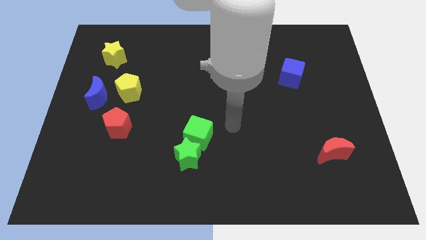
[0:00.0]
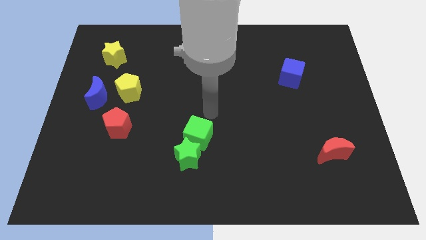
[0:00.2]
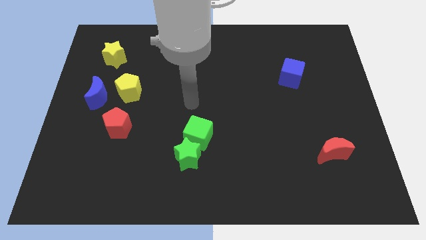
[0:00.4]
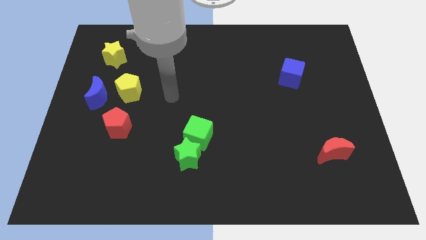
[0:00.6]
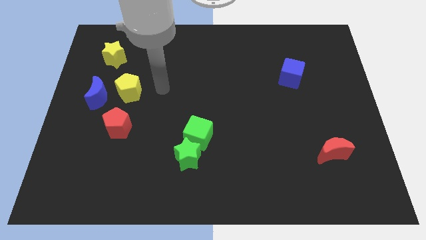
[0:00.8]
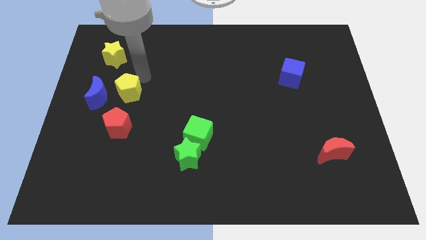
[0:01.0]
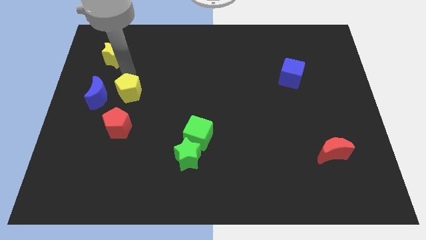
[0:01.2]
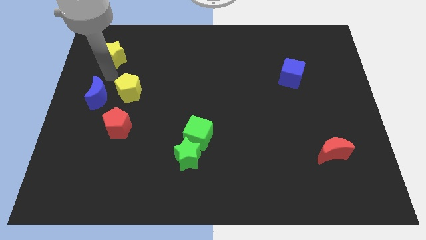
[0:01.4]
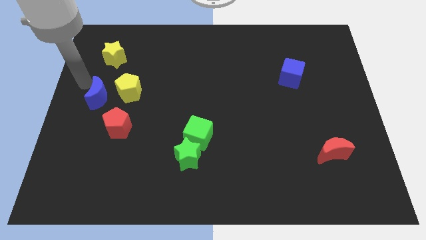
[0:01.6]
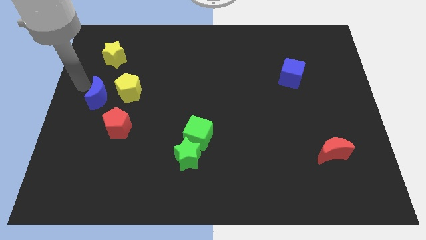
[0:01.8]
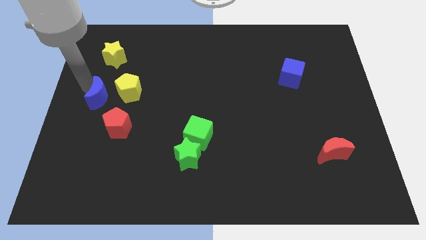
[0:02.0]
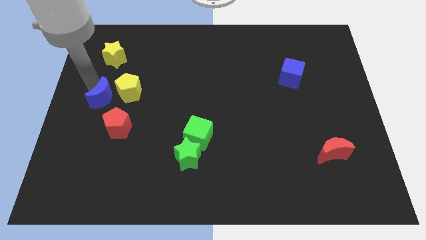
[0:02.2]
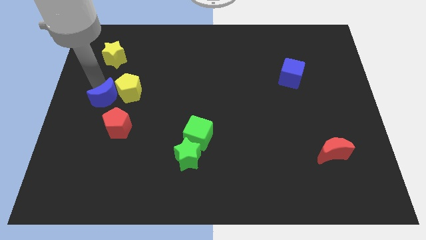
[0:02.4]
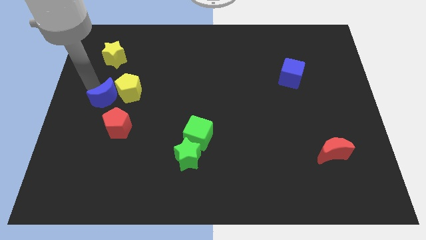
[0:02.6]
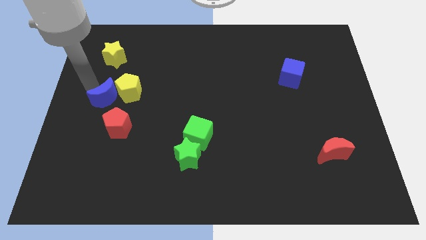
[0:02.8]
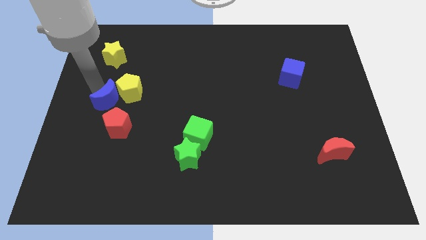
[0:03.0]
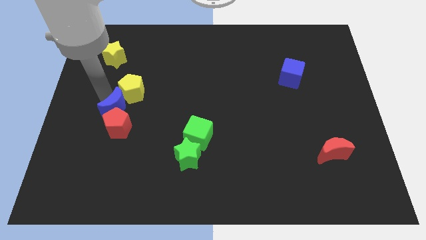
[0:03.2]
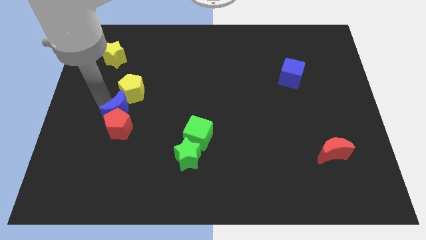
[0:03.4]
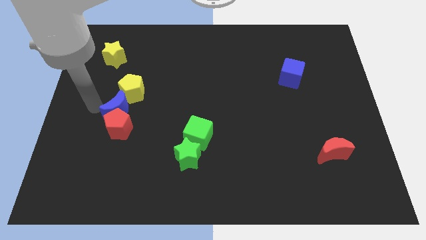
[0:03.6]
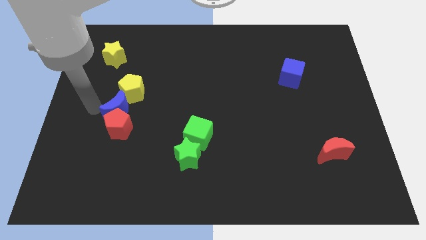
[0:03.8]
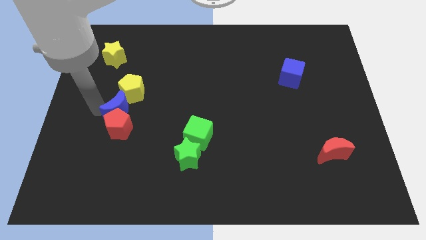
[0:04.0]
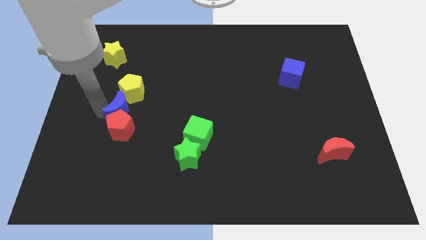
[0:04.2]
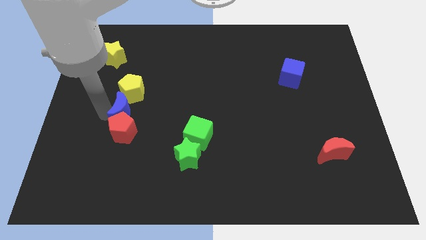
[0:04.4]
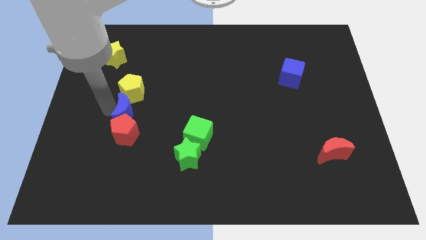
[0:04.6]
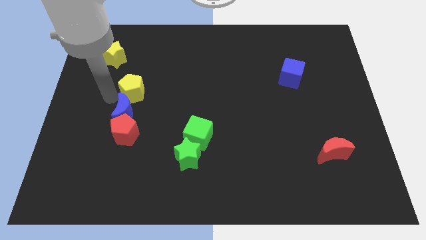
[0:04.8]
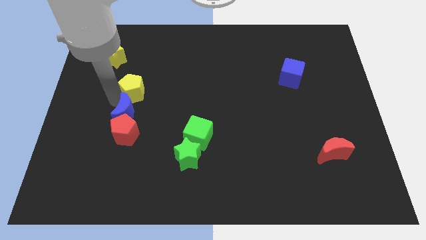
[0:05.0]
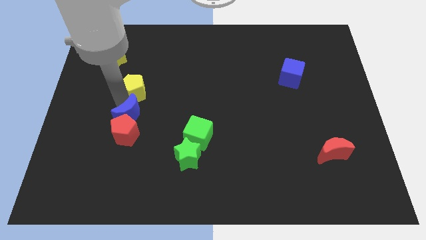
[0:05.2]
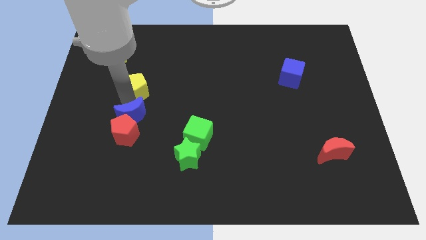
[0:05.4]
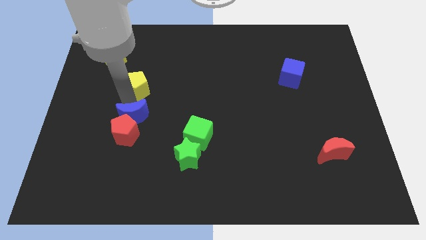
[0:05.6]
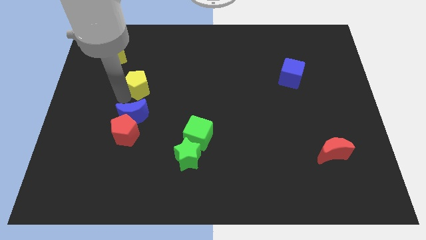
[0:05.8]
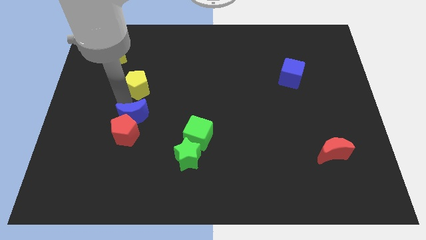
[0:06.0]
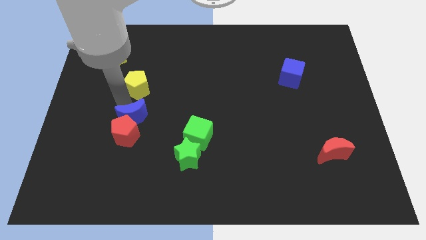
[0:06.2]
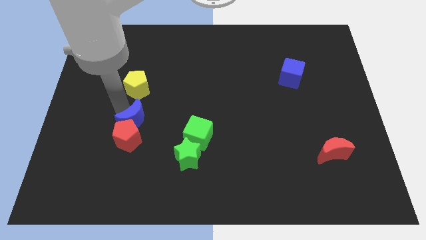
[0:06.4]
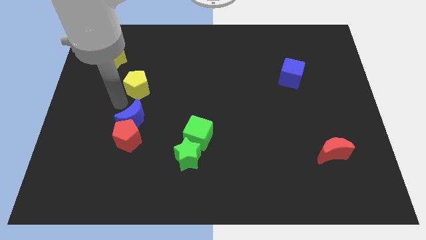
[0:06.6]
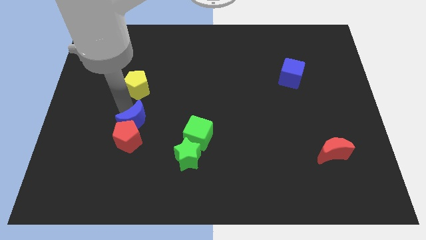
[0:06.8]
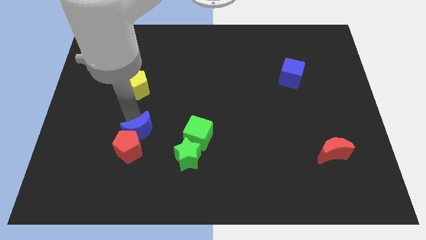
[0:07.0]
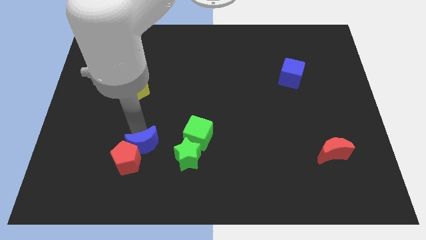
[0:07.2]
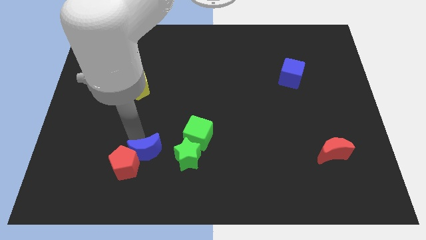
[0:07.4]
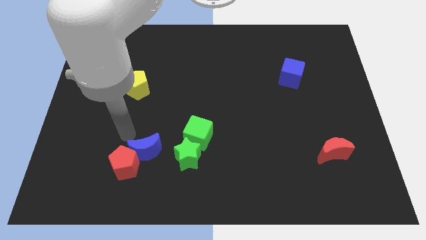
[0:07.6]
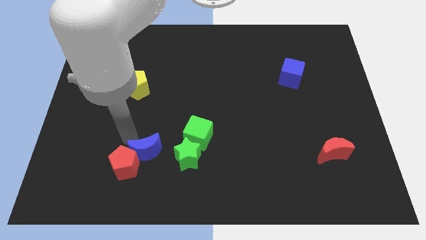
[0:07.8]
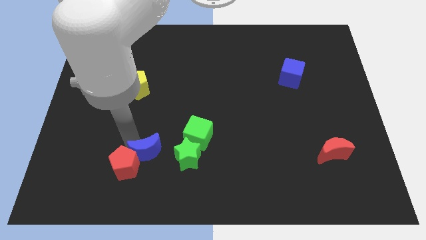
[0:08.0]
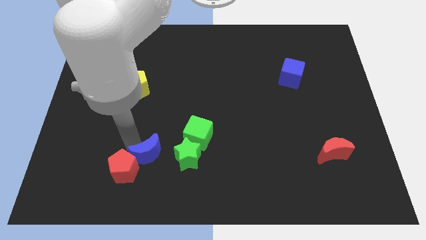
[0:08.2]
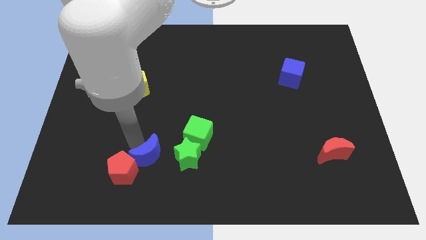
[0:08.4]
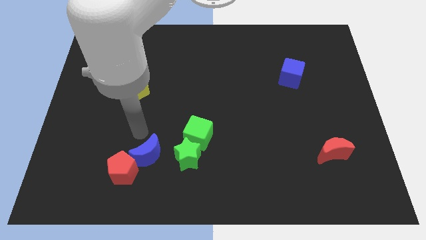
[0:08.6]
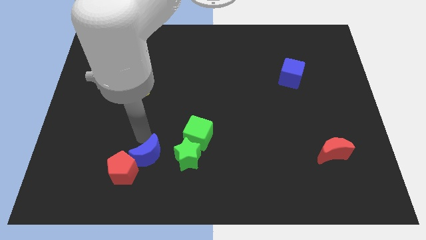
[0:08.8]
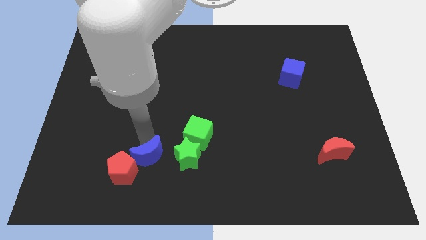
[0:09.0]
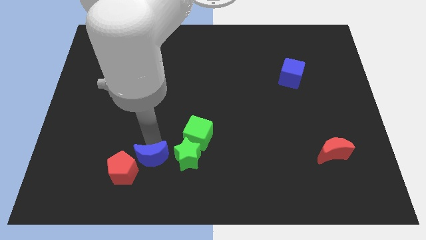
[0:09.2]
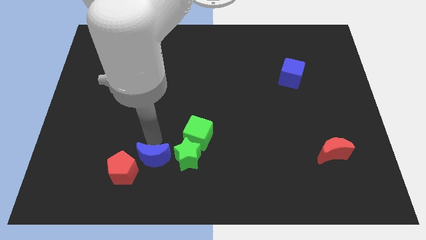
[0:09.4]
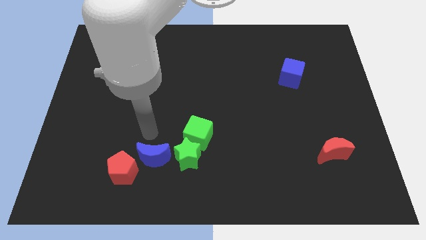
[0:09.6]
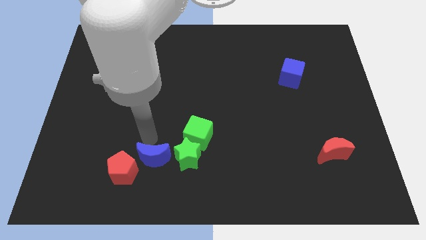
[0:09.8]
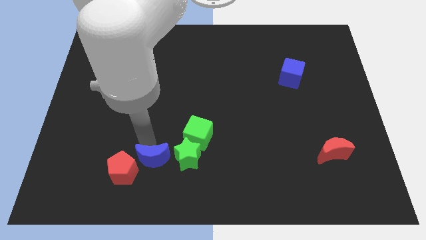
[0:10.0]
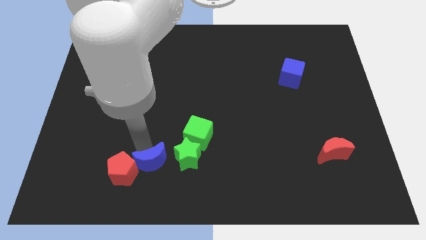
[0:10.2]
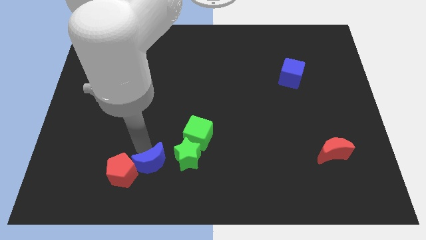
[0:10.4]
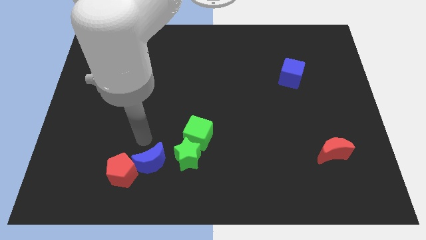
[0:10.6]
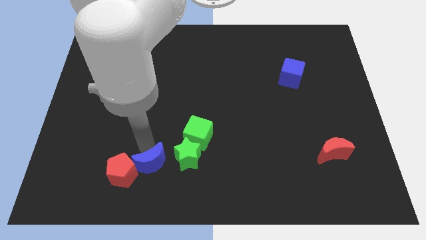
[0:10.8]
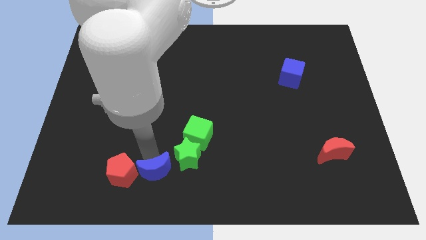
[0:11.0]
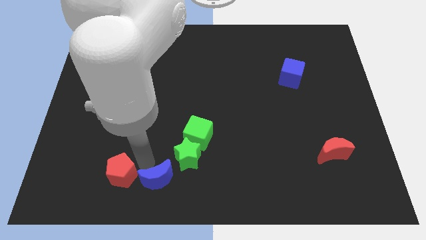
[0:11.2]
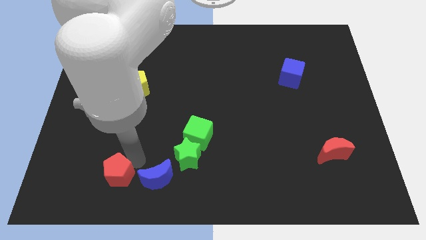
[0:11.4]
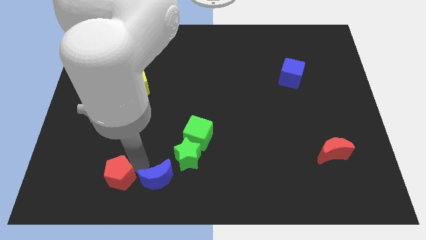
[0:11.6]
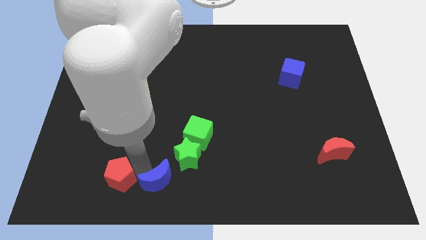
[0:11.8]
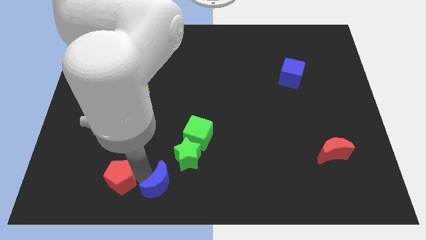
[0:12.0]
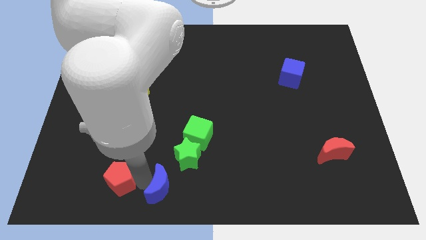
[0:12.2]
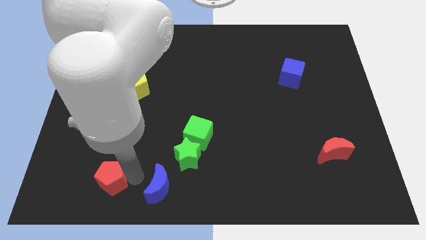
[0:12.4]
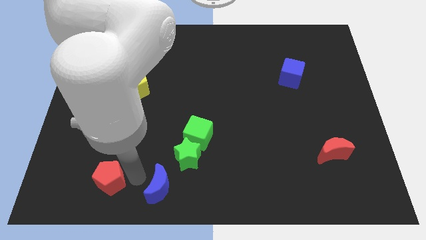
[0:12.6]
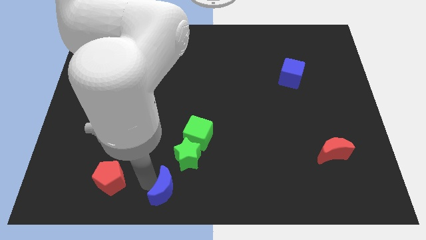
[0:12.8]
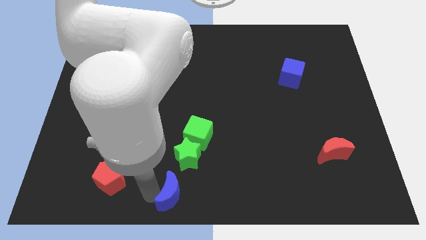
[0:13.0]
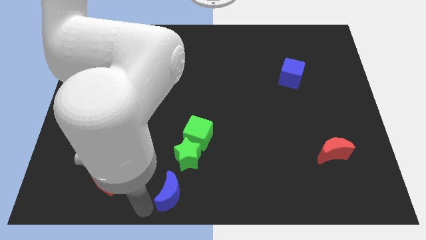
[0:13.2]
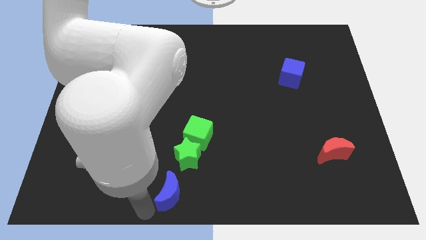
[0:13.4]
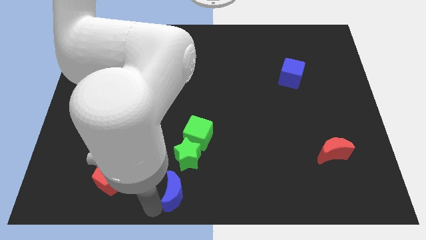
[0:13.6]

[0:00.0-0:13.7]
slide the blue moon to the bottom of the green cube
